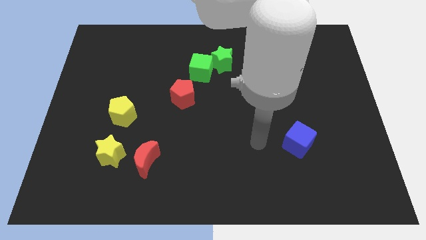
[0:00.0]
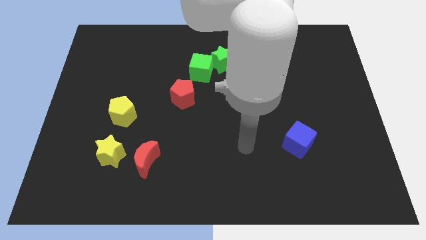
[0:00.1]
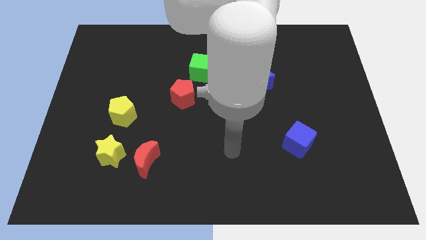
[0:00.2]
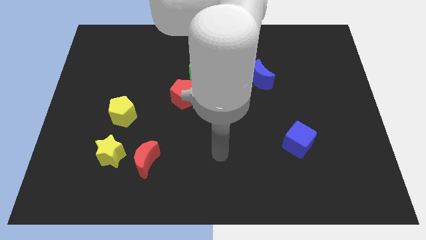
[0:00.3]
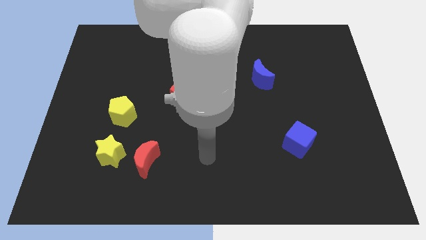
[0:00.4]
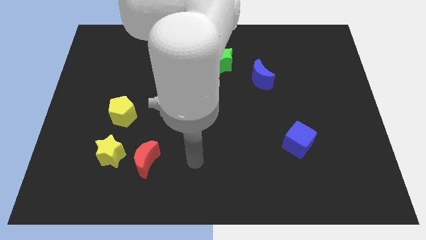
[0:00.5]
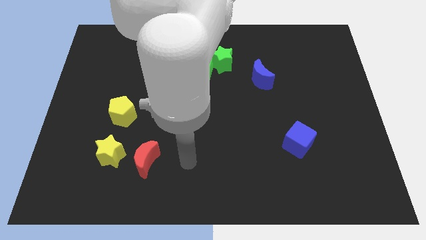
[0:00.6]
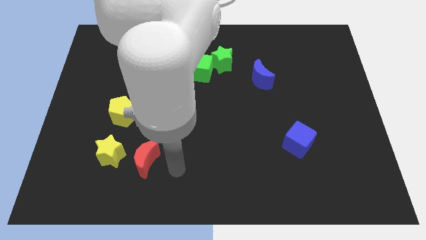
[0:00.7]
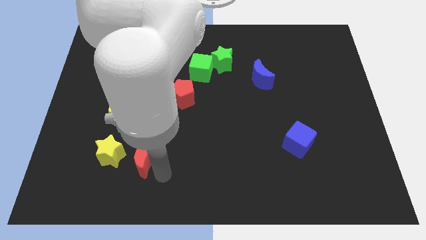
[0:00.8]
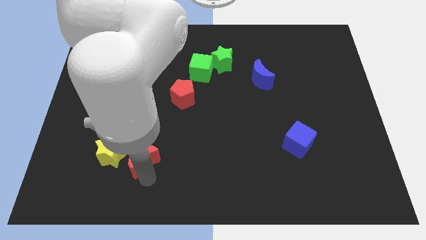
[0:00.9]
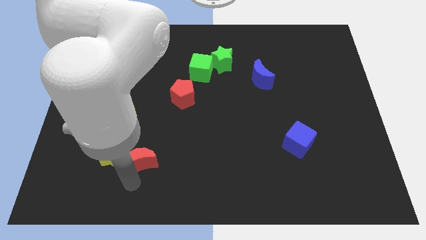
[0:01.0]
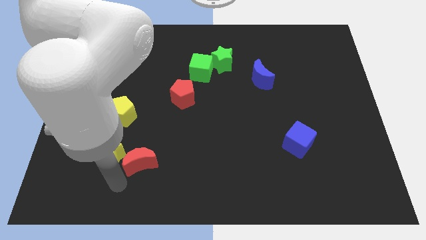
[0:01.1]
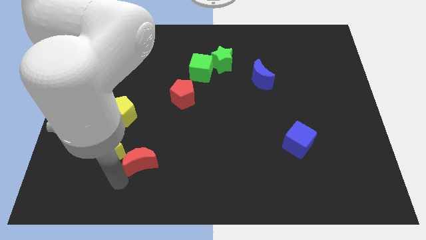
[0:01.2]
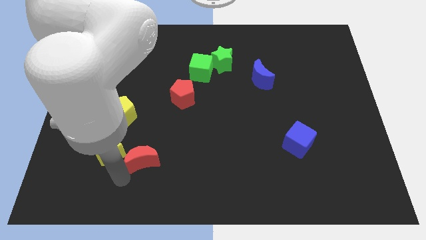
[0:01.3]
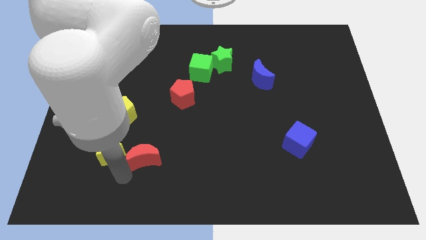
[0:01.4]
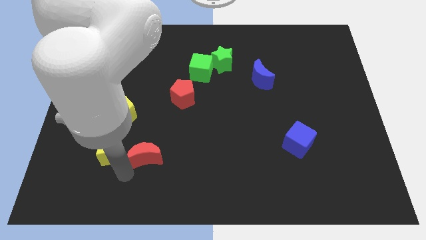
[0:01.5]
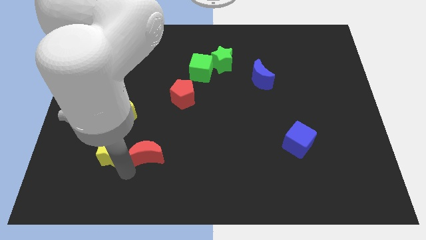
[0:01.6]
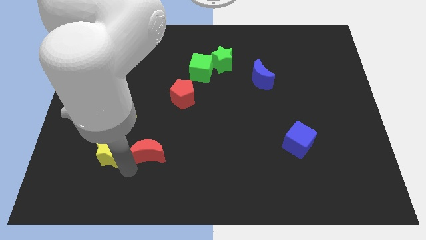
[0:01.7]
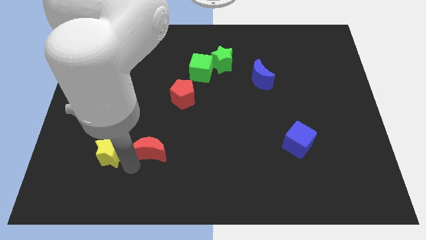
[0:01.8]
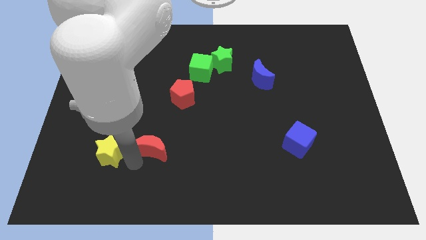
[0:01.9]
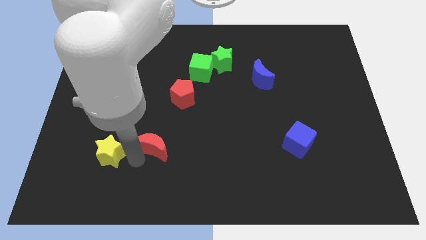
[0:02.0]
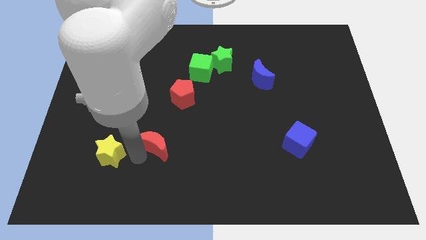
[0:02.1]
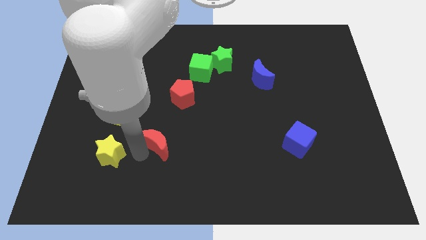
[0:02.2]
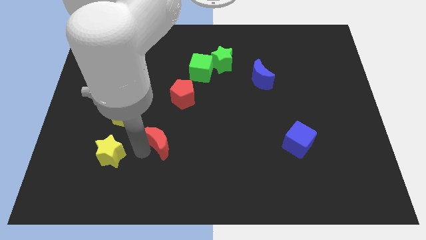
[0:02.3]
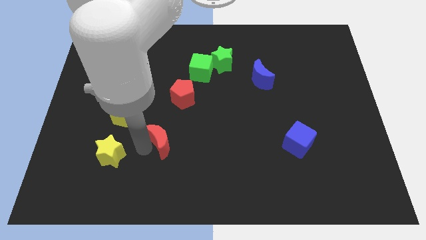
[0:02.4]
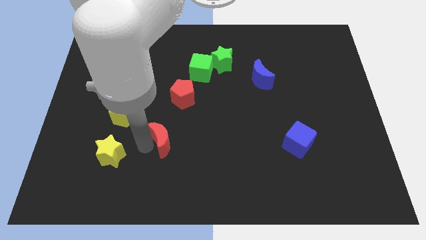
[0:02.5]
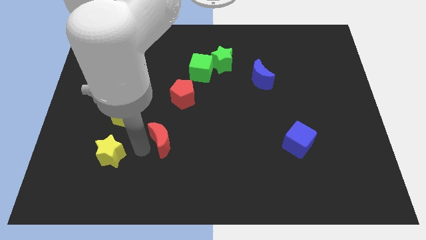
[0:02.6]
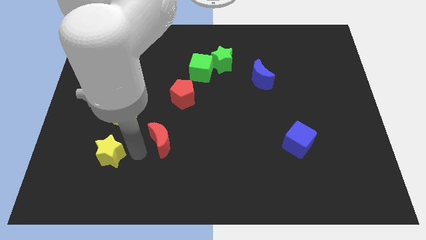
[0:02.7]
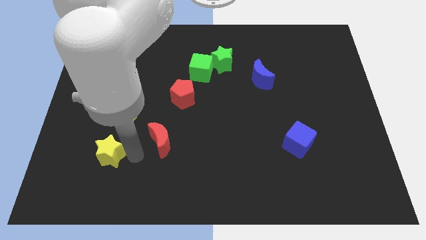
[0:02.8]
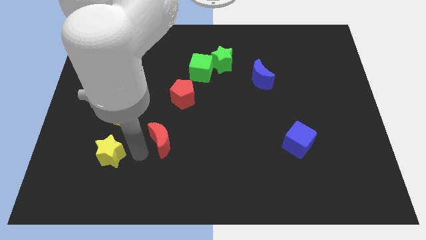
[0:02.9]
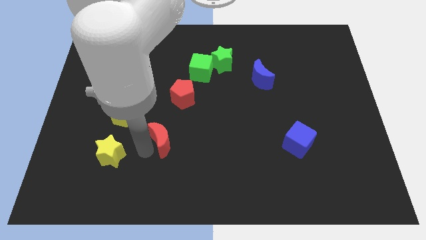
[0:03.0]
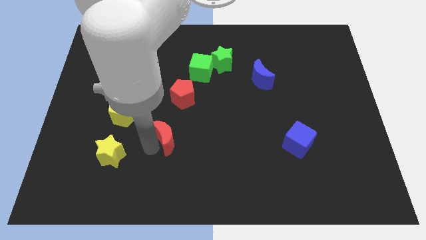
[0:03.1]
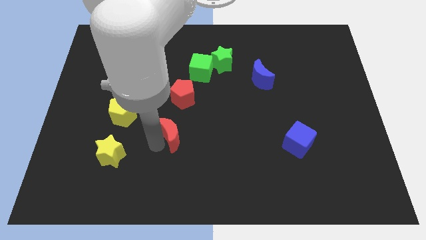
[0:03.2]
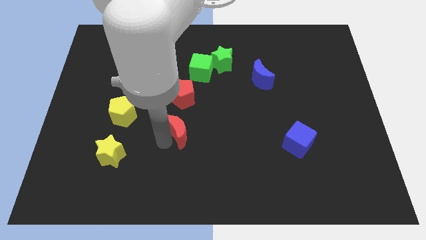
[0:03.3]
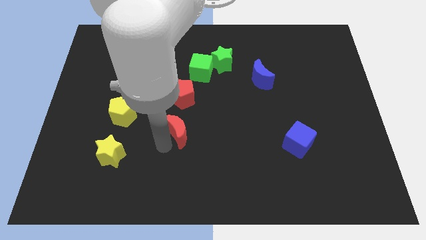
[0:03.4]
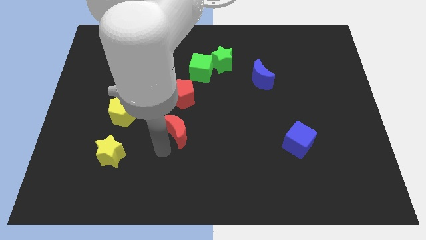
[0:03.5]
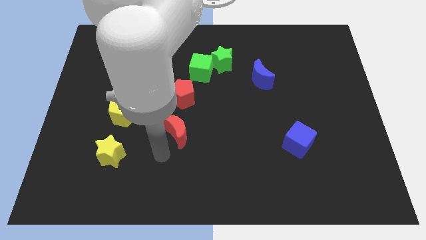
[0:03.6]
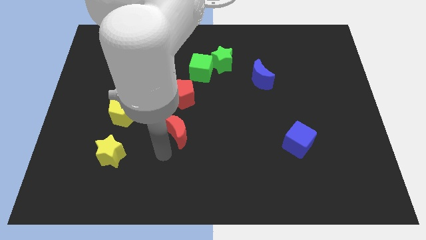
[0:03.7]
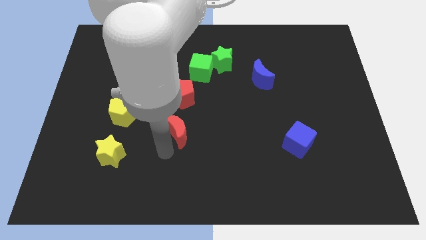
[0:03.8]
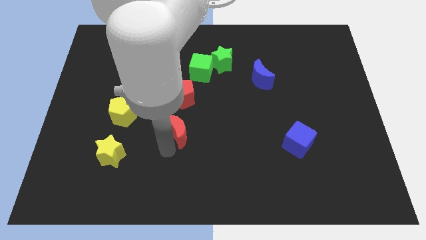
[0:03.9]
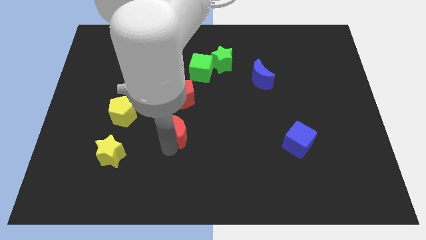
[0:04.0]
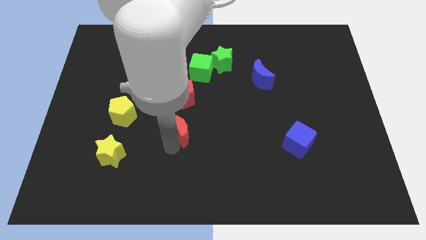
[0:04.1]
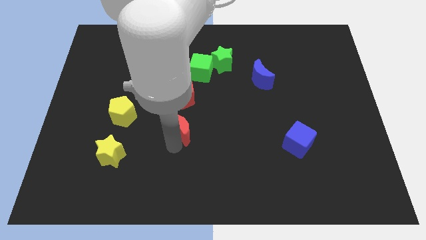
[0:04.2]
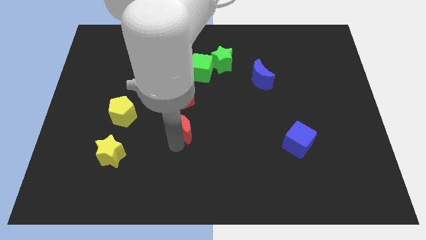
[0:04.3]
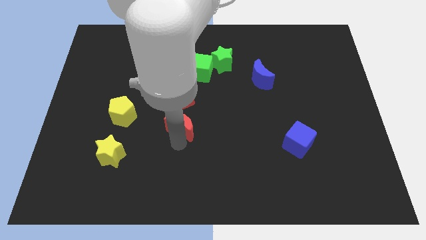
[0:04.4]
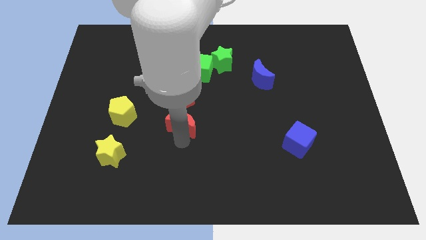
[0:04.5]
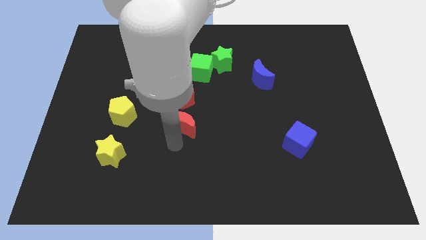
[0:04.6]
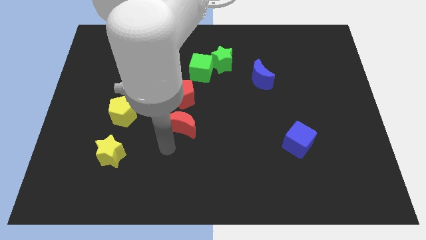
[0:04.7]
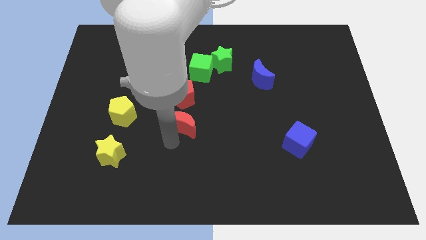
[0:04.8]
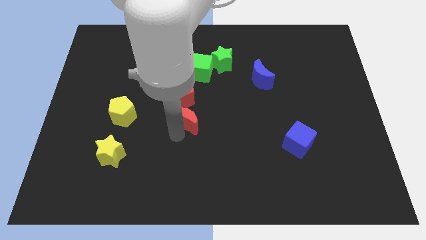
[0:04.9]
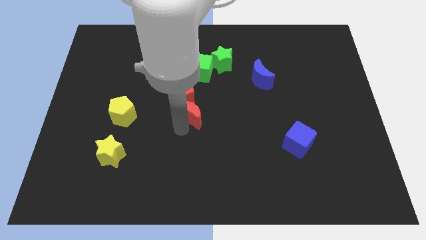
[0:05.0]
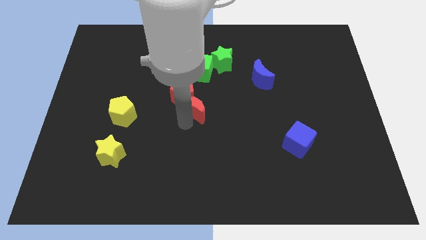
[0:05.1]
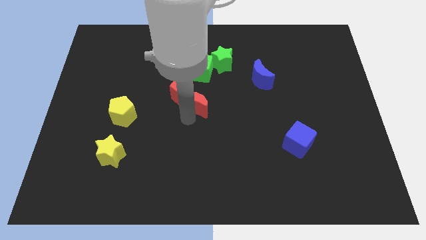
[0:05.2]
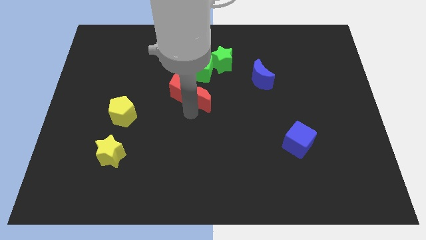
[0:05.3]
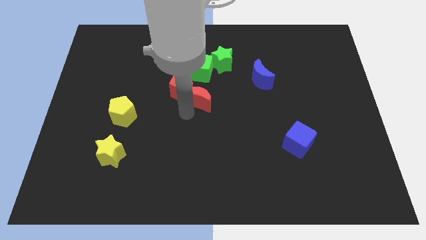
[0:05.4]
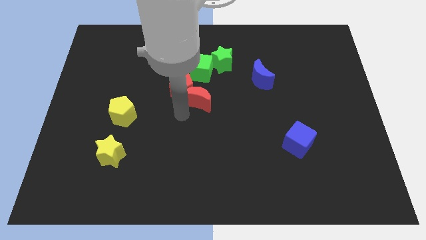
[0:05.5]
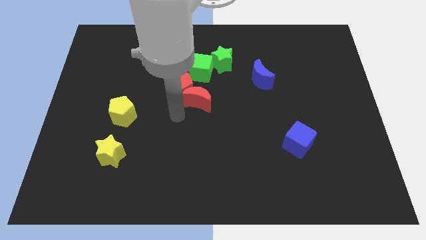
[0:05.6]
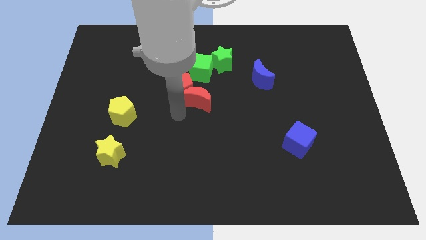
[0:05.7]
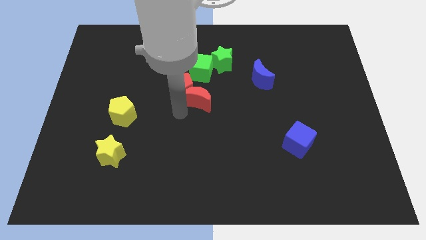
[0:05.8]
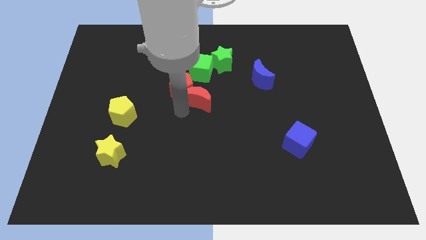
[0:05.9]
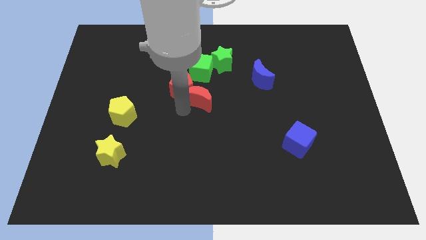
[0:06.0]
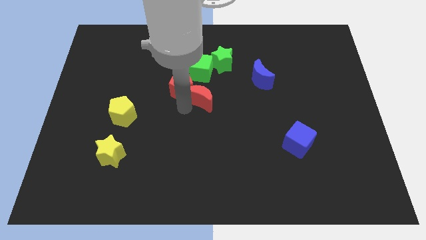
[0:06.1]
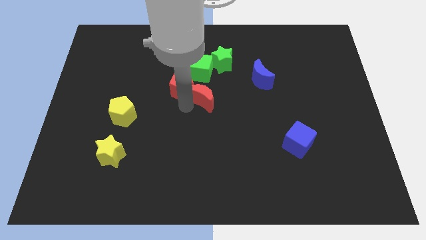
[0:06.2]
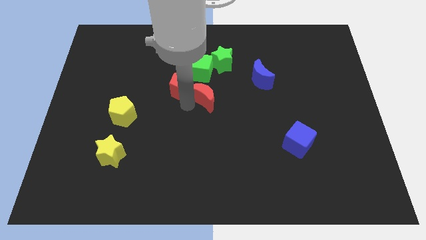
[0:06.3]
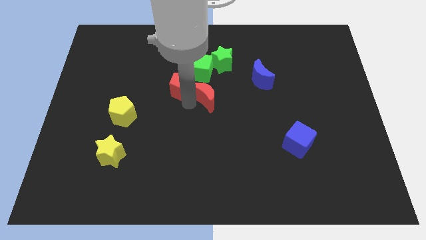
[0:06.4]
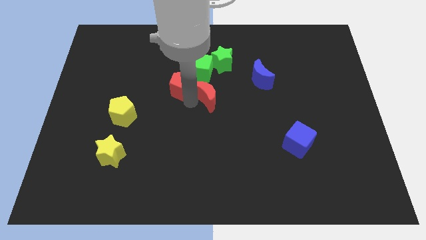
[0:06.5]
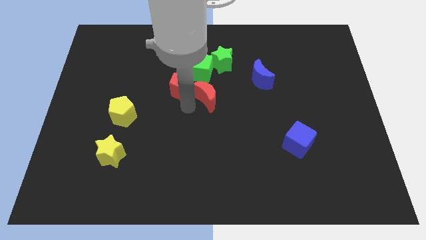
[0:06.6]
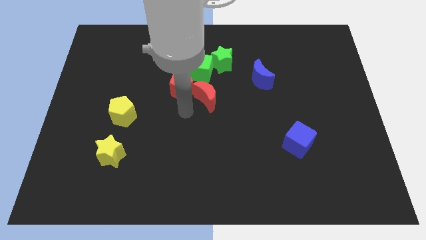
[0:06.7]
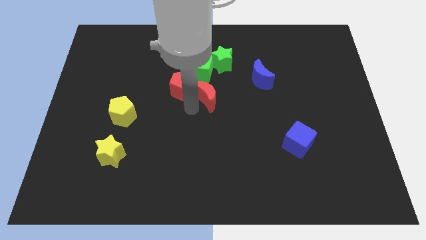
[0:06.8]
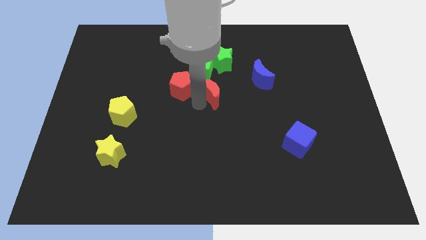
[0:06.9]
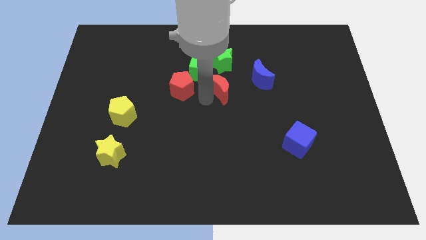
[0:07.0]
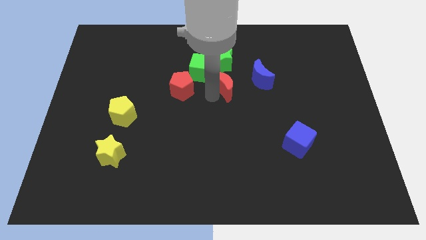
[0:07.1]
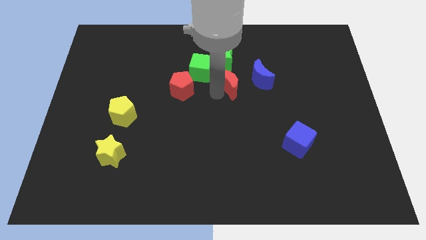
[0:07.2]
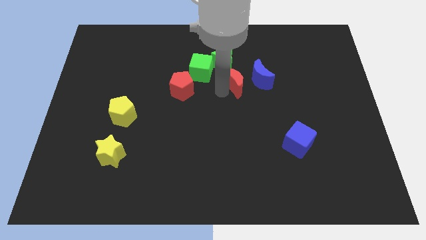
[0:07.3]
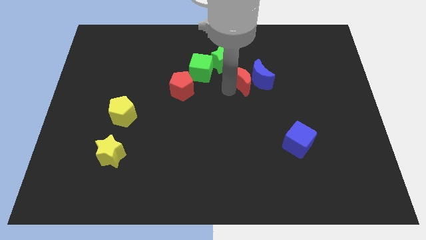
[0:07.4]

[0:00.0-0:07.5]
put the red moon to the top left side of the blue moon
